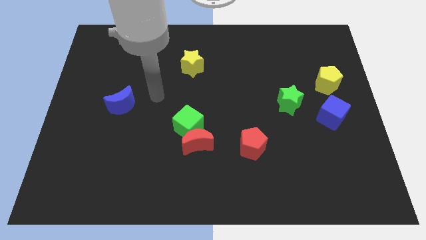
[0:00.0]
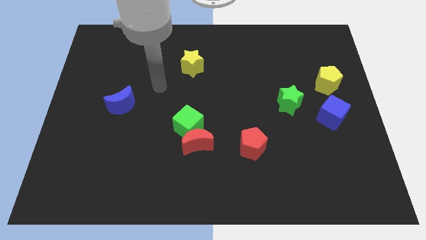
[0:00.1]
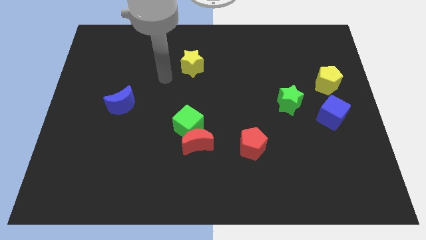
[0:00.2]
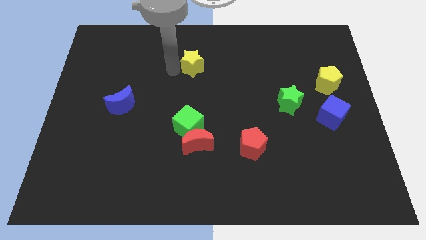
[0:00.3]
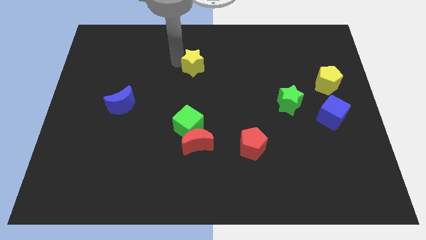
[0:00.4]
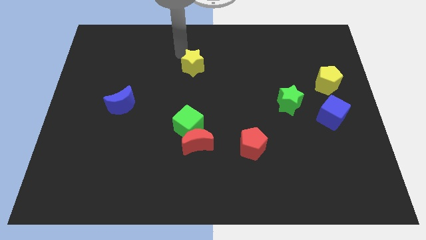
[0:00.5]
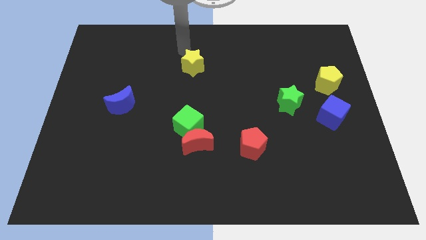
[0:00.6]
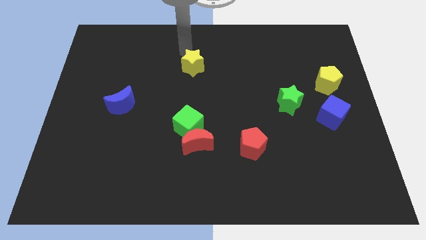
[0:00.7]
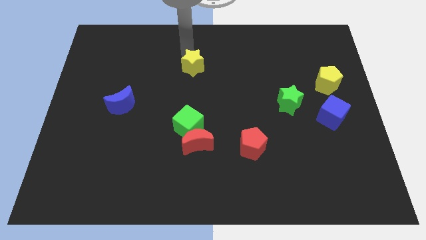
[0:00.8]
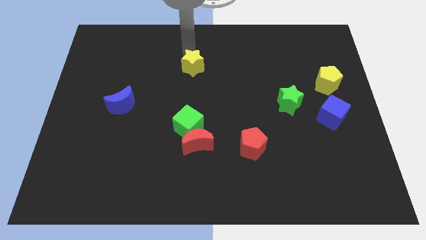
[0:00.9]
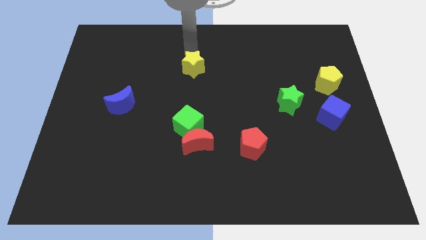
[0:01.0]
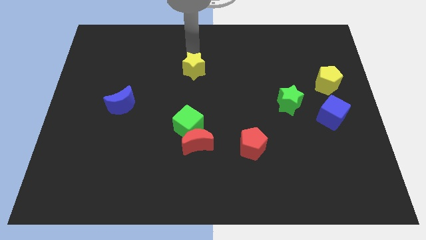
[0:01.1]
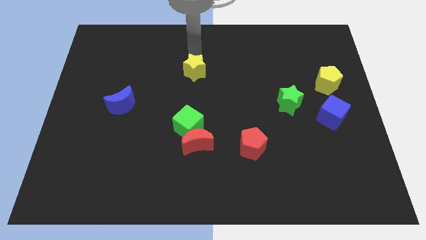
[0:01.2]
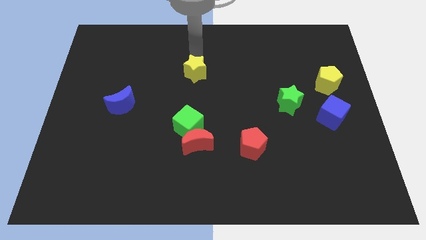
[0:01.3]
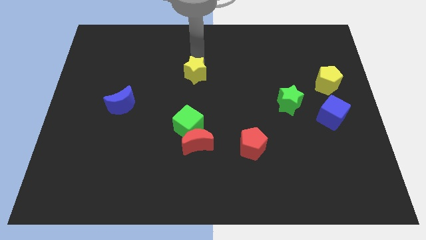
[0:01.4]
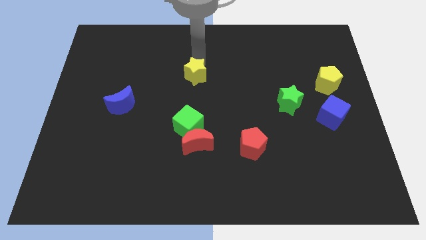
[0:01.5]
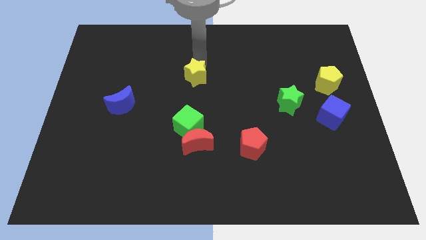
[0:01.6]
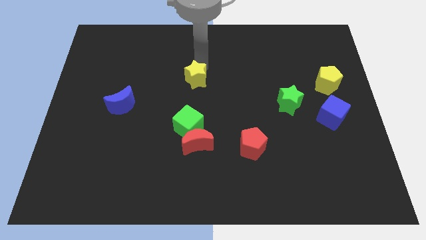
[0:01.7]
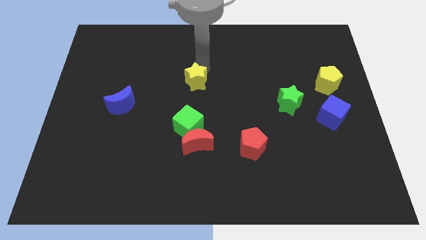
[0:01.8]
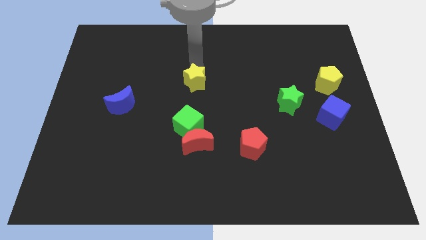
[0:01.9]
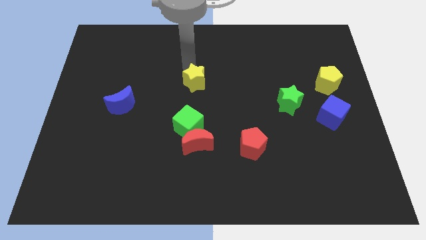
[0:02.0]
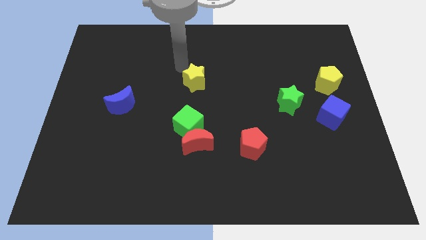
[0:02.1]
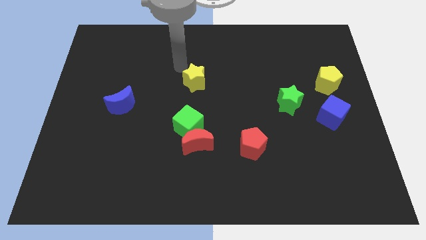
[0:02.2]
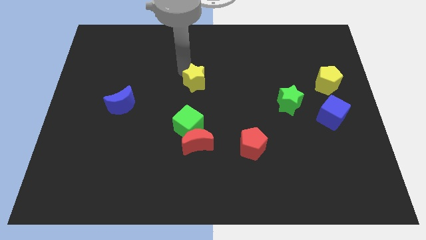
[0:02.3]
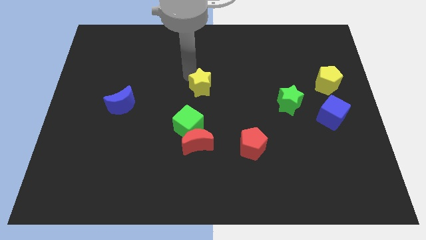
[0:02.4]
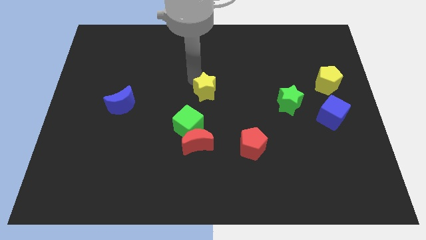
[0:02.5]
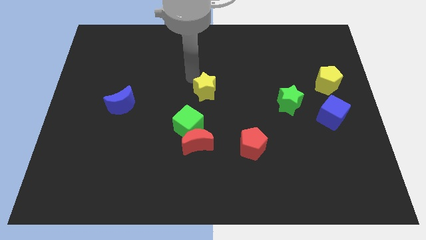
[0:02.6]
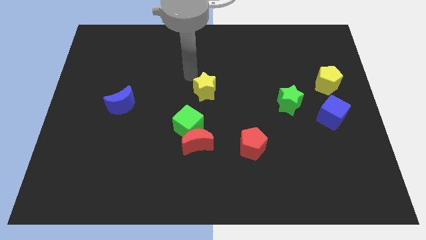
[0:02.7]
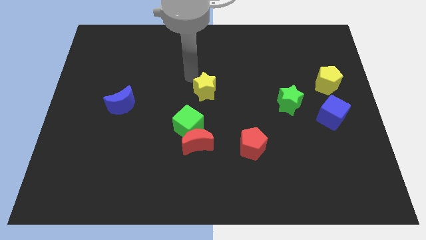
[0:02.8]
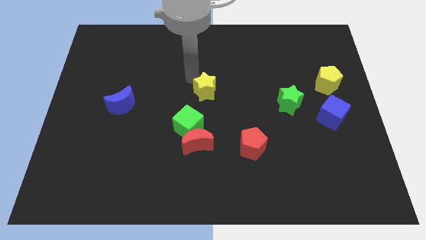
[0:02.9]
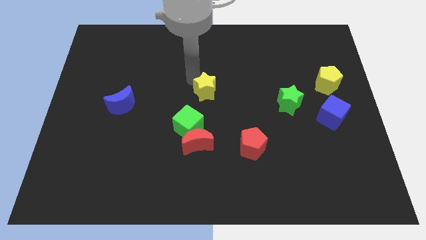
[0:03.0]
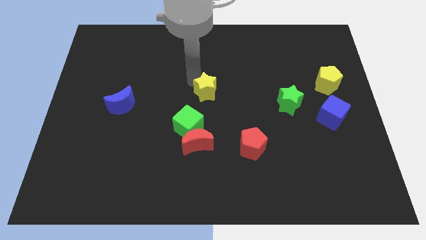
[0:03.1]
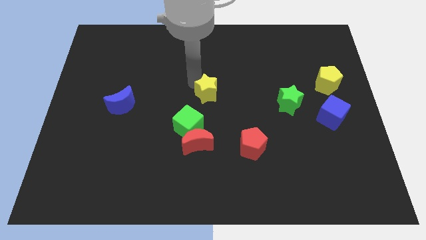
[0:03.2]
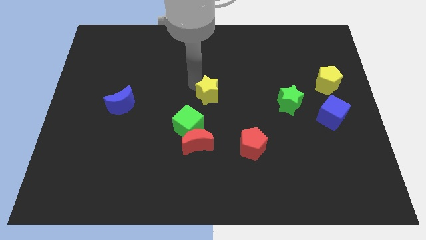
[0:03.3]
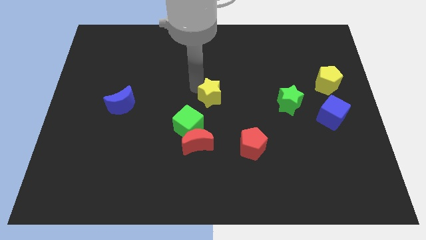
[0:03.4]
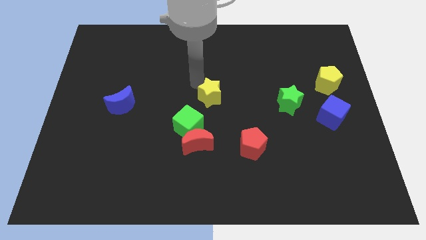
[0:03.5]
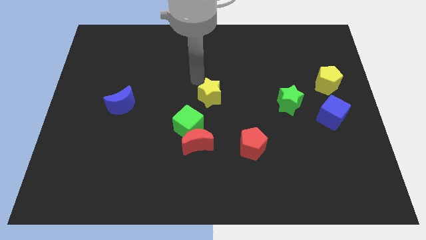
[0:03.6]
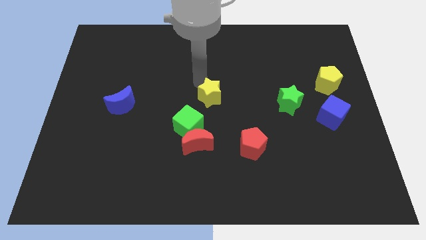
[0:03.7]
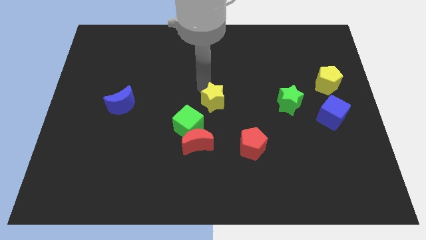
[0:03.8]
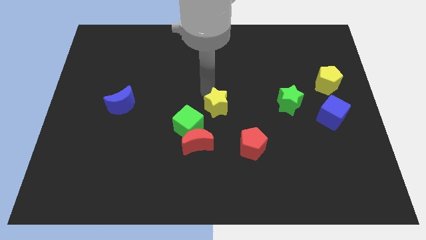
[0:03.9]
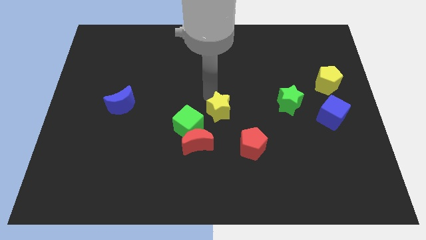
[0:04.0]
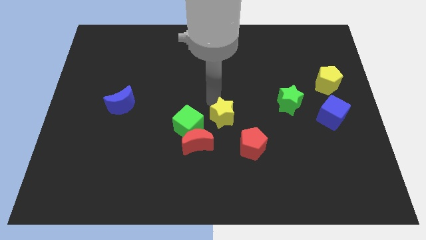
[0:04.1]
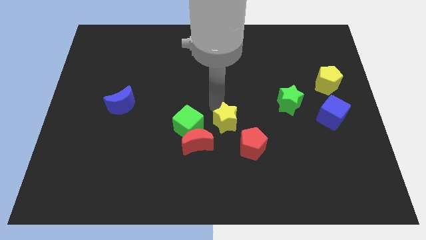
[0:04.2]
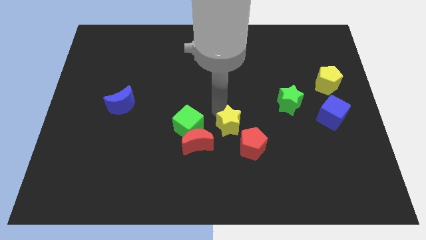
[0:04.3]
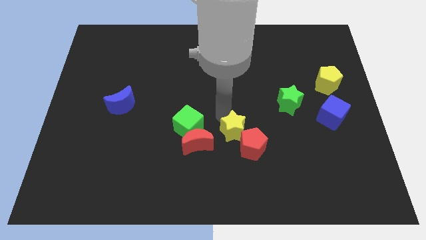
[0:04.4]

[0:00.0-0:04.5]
push the yellow star next to the red pentagon

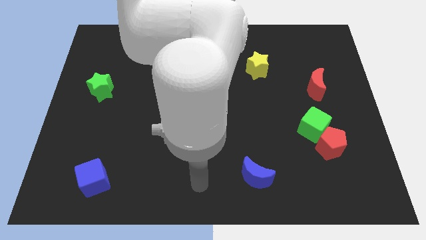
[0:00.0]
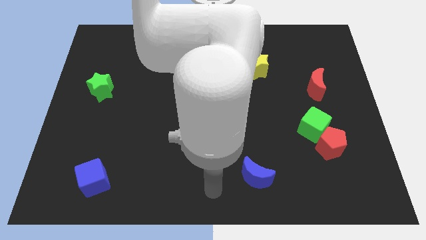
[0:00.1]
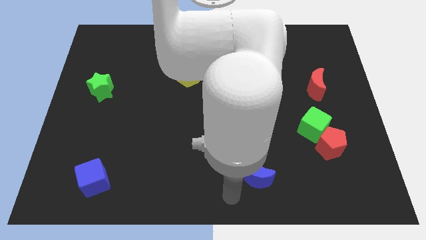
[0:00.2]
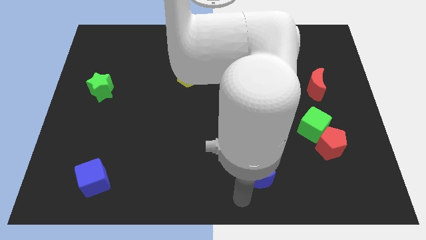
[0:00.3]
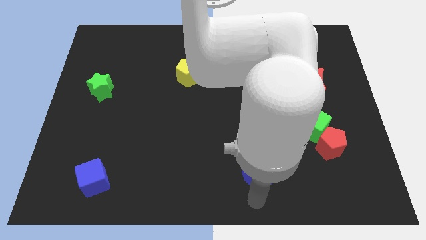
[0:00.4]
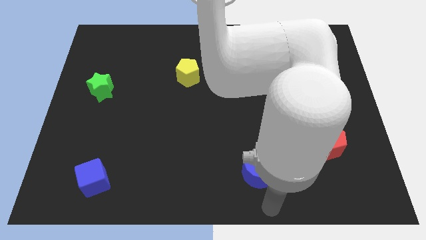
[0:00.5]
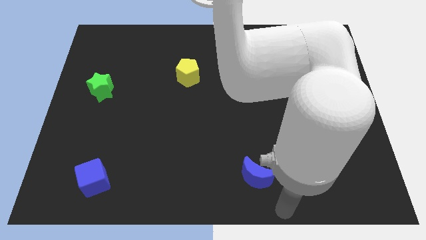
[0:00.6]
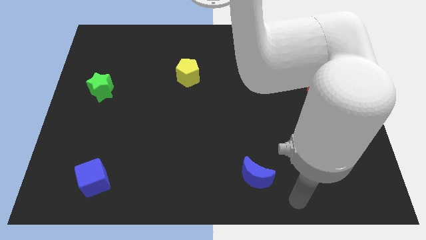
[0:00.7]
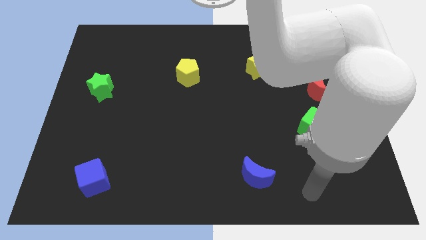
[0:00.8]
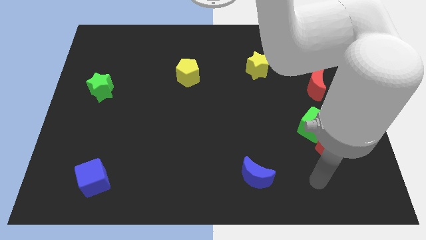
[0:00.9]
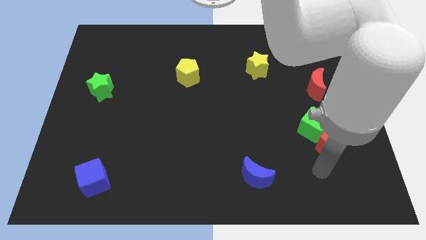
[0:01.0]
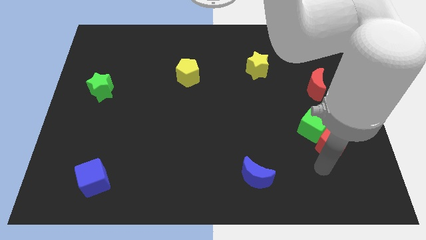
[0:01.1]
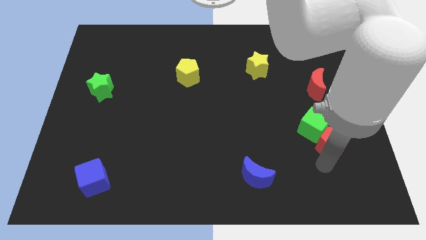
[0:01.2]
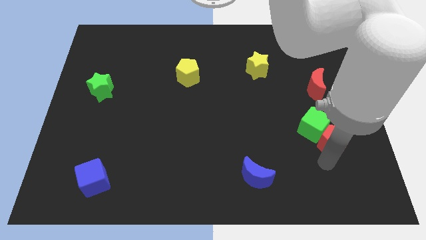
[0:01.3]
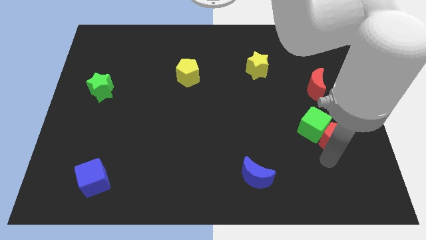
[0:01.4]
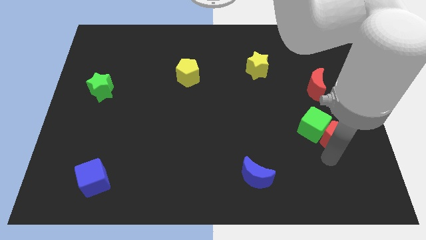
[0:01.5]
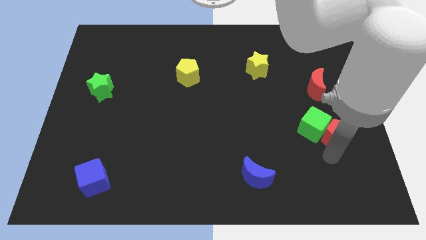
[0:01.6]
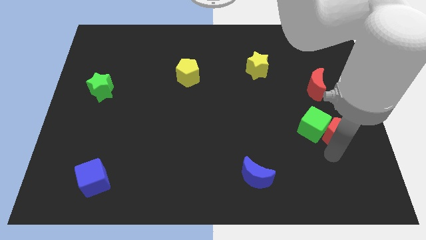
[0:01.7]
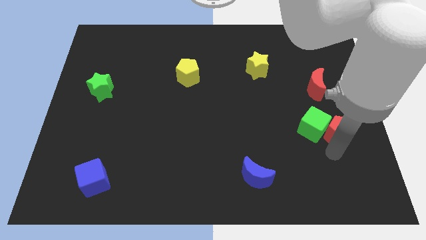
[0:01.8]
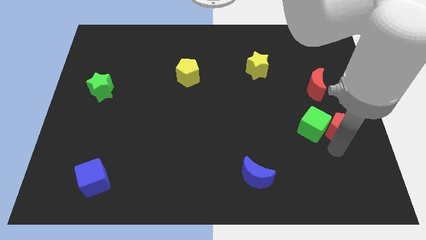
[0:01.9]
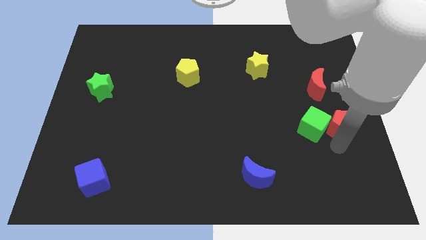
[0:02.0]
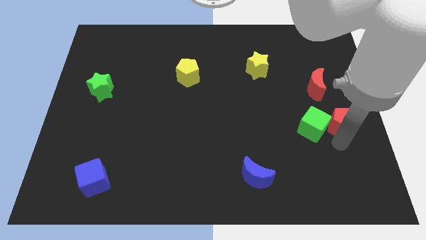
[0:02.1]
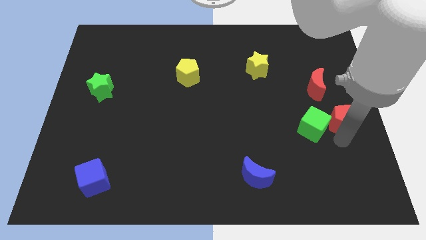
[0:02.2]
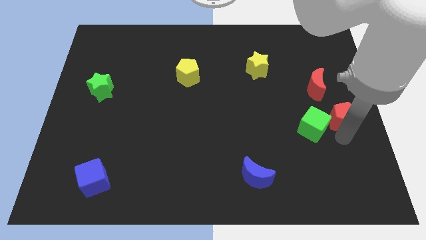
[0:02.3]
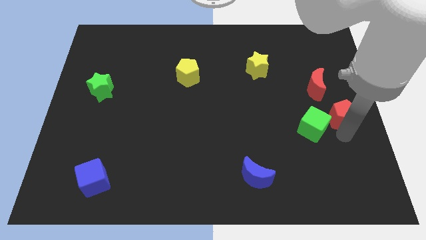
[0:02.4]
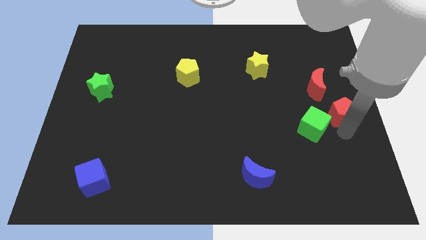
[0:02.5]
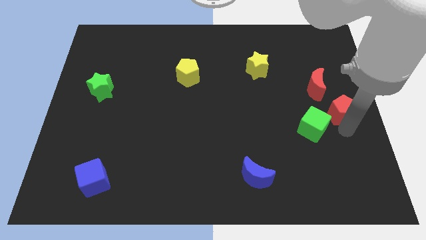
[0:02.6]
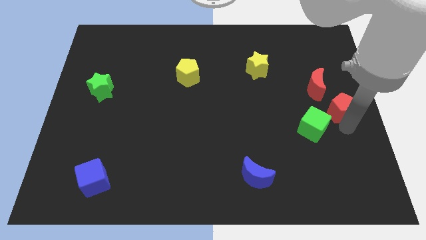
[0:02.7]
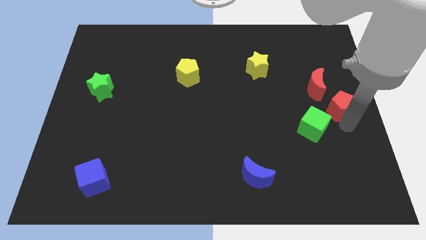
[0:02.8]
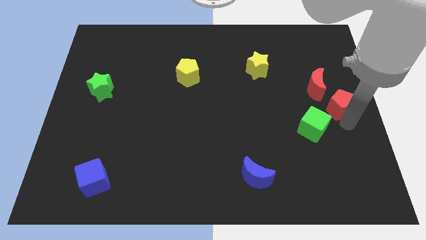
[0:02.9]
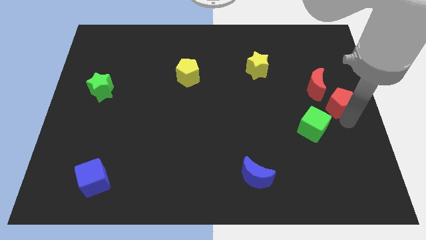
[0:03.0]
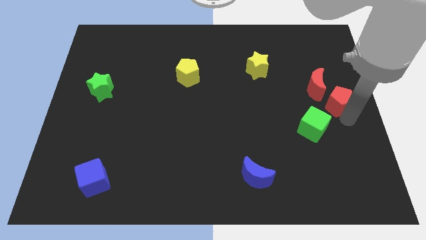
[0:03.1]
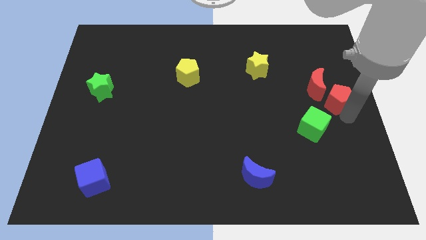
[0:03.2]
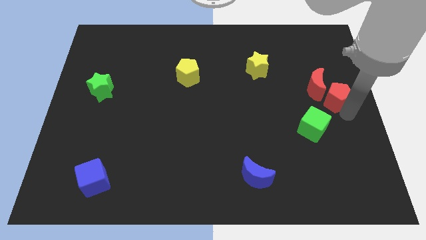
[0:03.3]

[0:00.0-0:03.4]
put the red pentagon to the red moon
